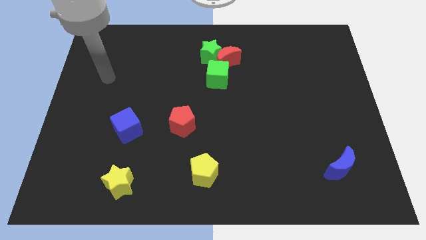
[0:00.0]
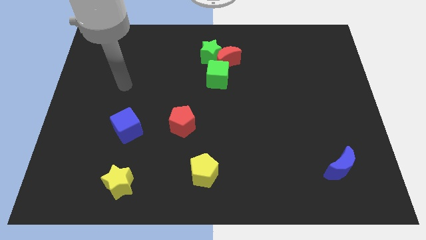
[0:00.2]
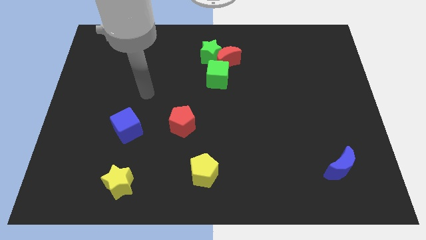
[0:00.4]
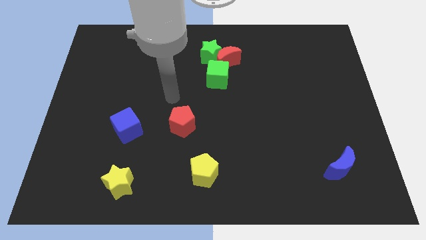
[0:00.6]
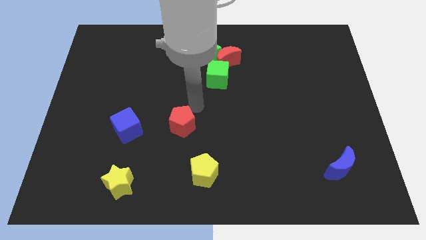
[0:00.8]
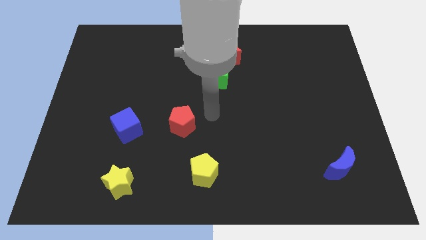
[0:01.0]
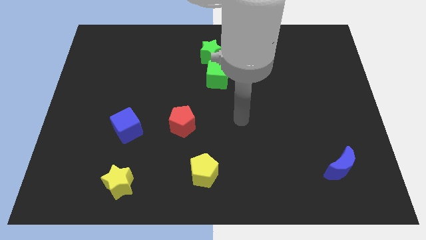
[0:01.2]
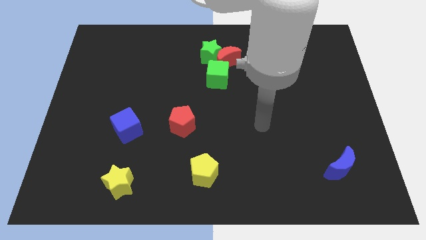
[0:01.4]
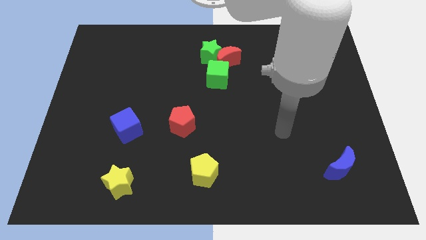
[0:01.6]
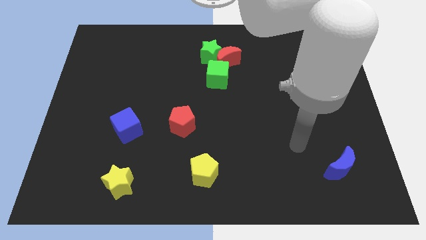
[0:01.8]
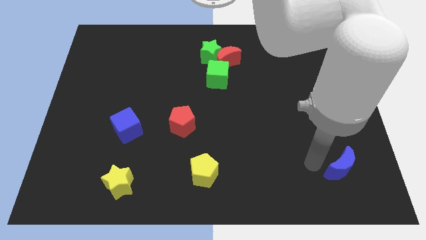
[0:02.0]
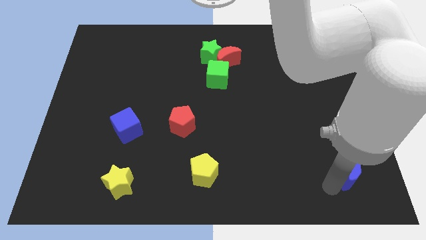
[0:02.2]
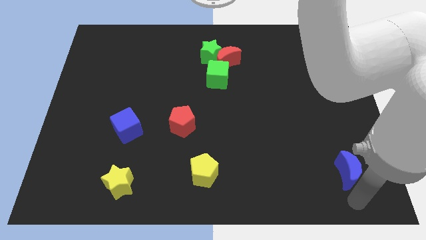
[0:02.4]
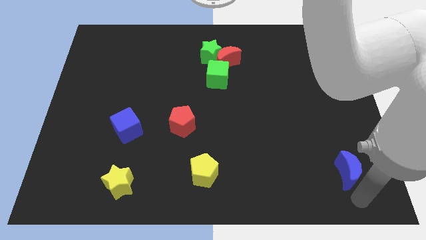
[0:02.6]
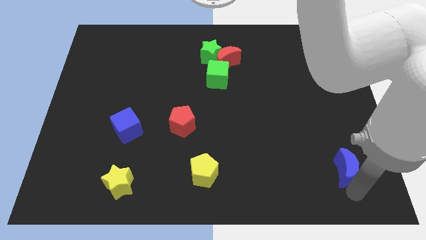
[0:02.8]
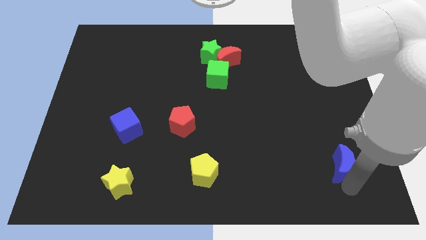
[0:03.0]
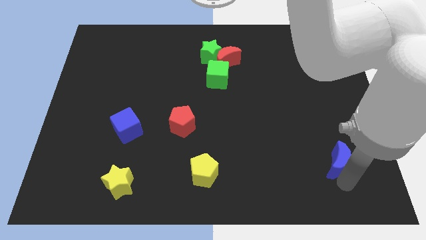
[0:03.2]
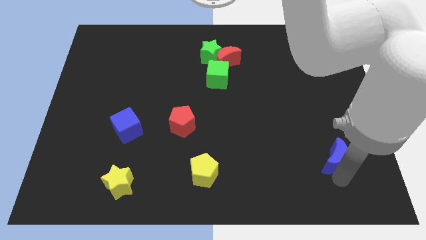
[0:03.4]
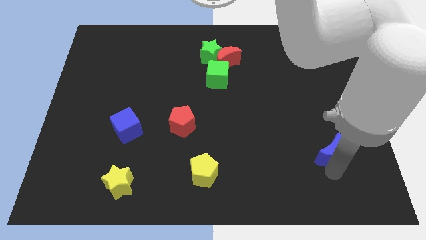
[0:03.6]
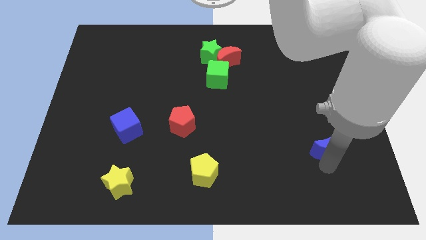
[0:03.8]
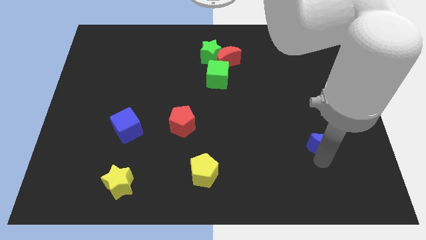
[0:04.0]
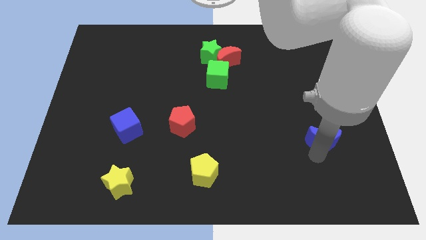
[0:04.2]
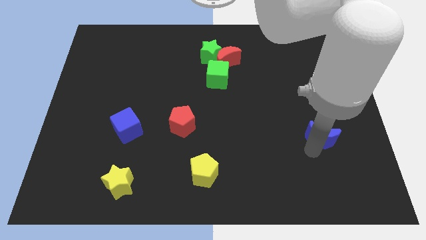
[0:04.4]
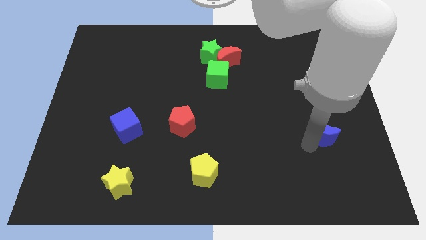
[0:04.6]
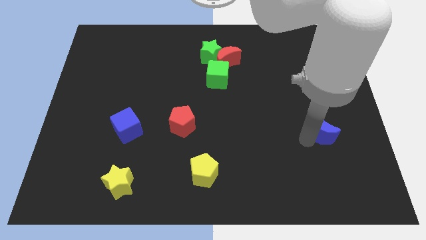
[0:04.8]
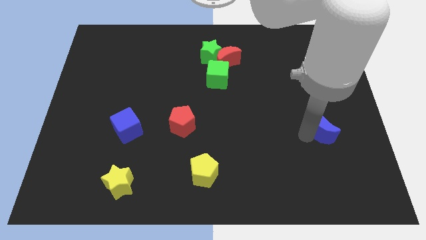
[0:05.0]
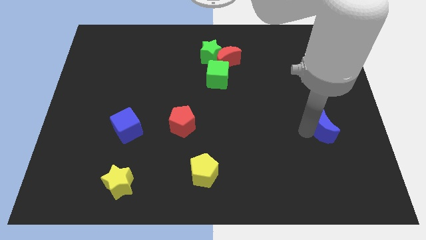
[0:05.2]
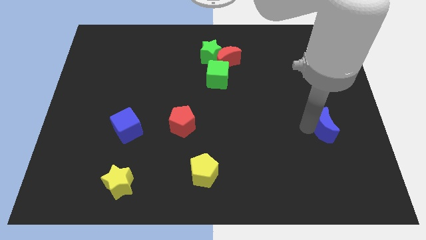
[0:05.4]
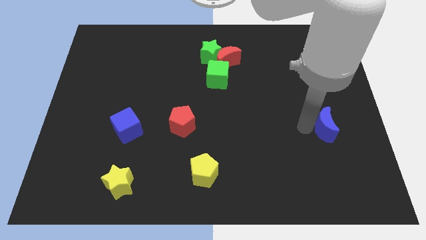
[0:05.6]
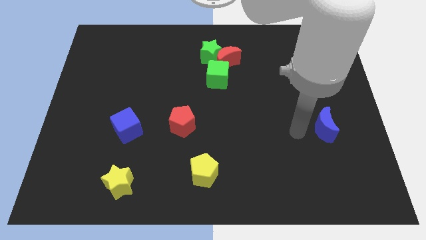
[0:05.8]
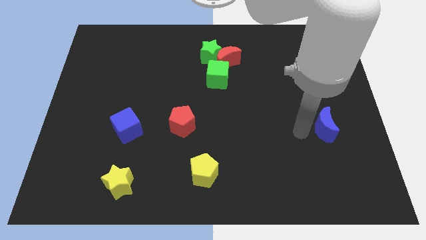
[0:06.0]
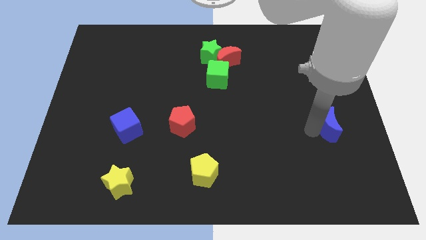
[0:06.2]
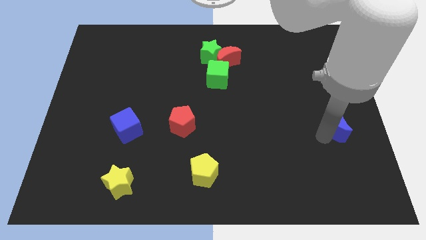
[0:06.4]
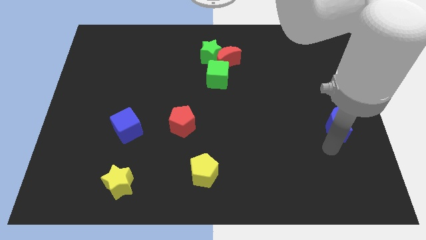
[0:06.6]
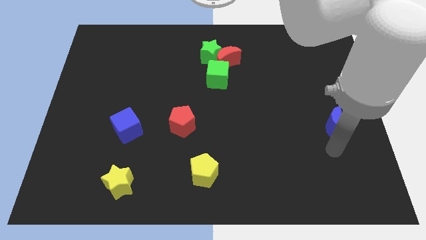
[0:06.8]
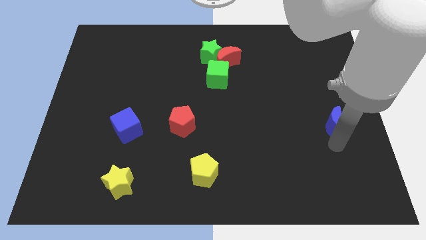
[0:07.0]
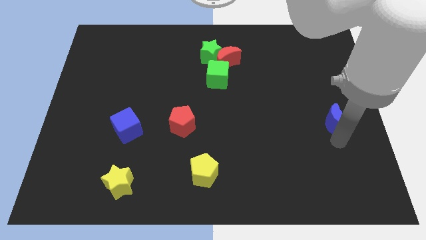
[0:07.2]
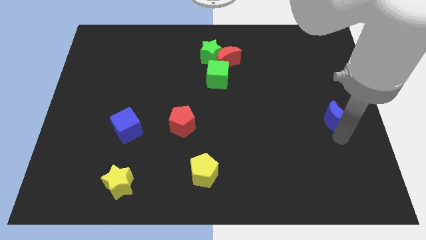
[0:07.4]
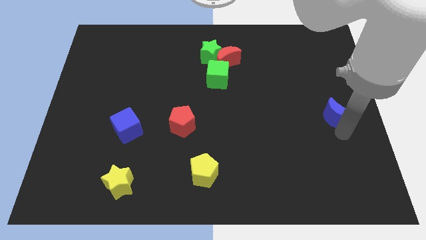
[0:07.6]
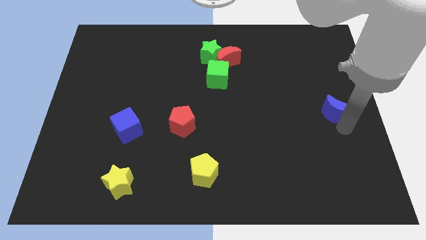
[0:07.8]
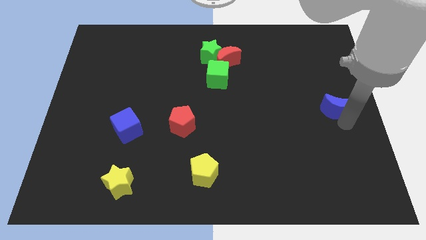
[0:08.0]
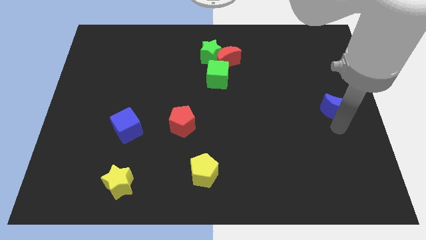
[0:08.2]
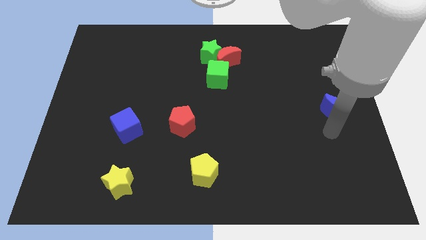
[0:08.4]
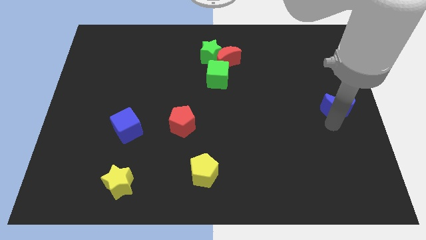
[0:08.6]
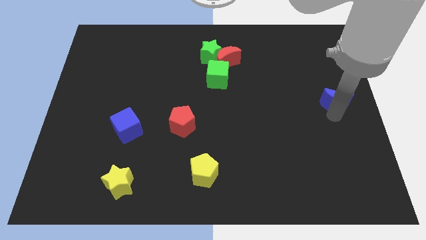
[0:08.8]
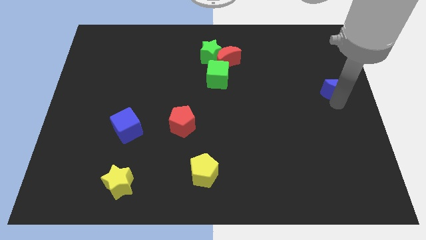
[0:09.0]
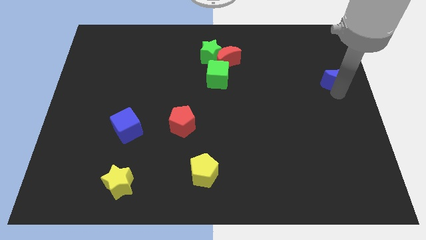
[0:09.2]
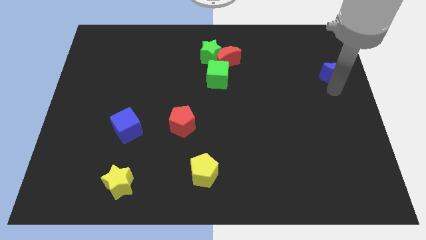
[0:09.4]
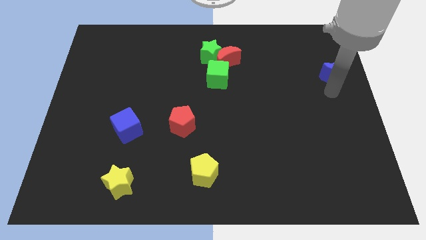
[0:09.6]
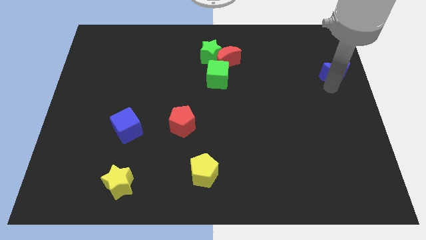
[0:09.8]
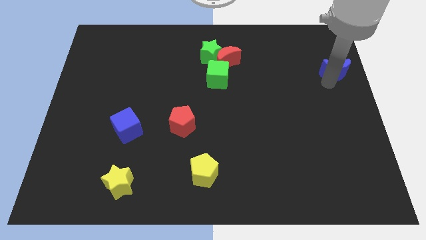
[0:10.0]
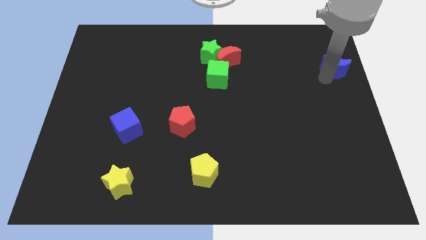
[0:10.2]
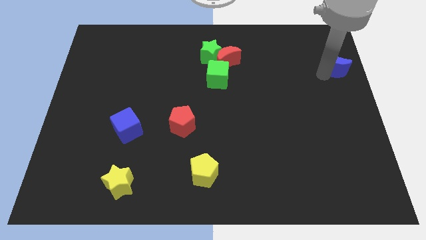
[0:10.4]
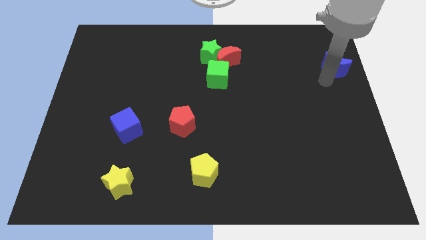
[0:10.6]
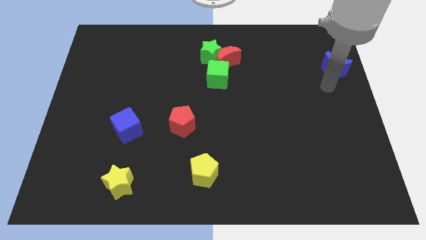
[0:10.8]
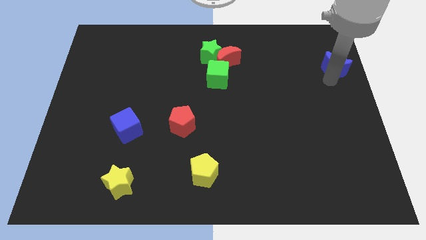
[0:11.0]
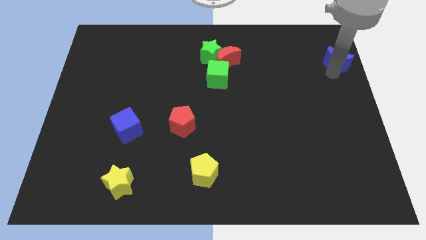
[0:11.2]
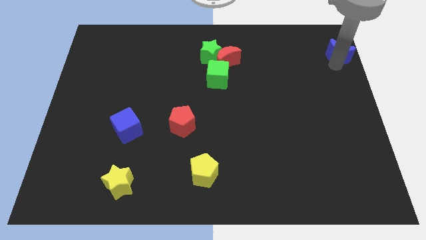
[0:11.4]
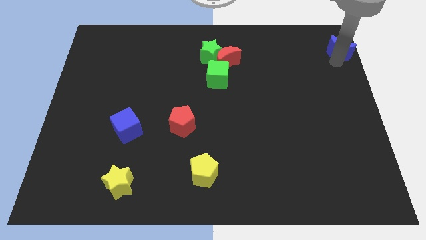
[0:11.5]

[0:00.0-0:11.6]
push the blue moon to the top right of the board

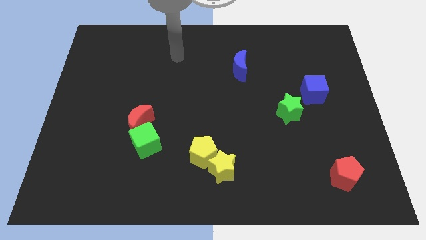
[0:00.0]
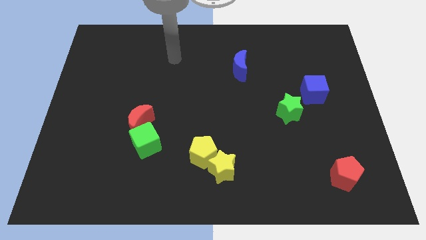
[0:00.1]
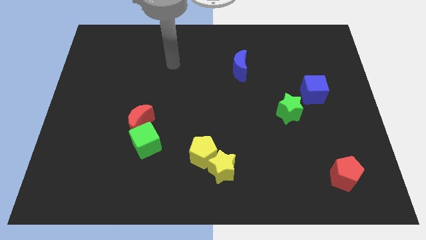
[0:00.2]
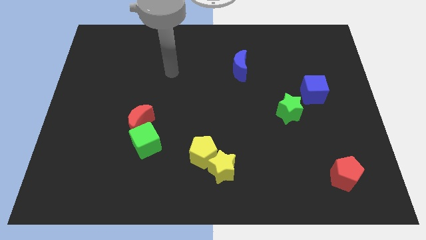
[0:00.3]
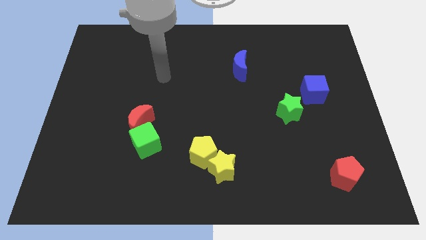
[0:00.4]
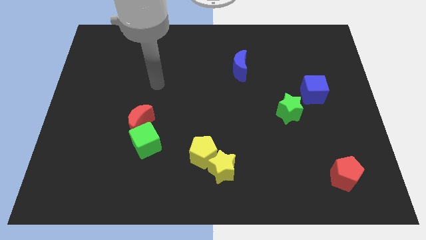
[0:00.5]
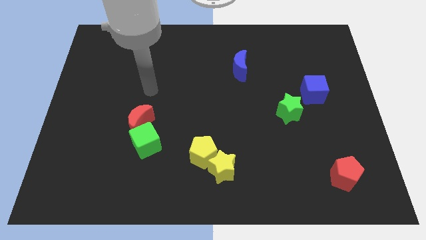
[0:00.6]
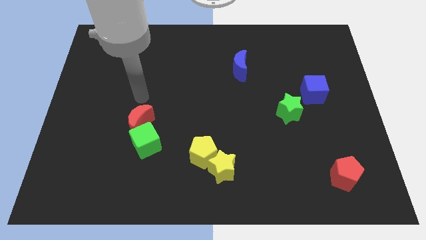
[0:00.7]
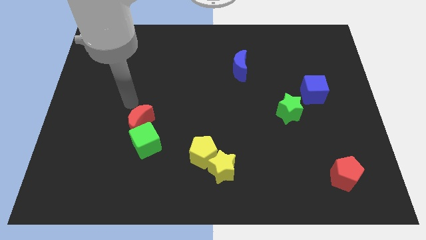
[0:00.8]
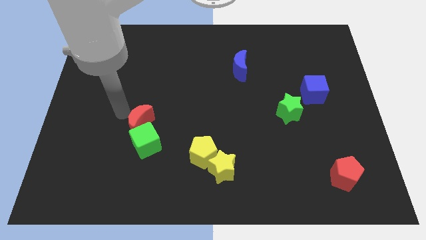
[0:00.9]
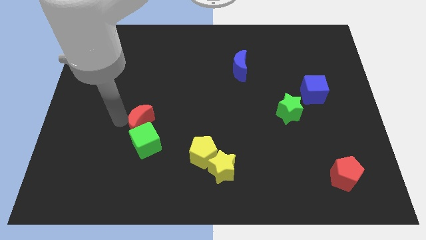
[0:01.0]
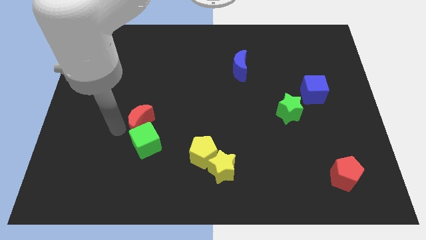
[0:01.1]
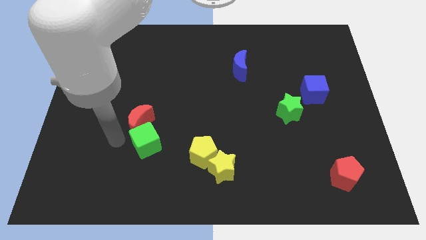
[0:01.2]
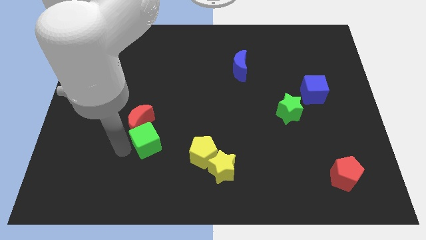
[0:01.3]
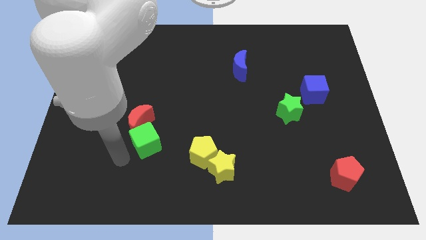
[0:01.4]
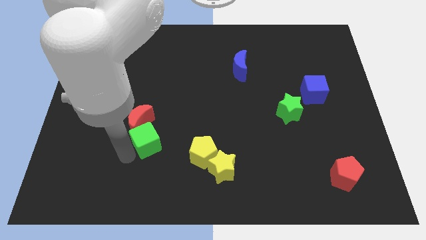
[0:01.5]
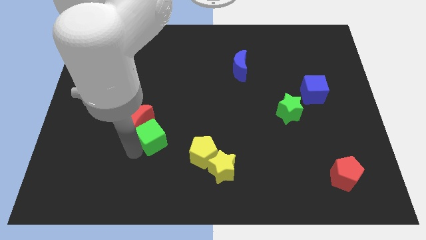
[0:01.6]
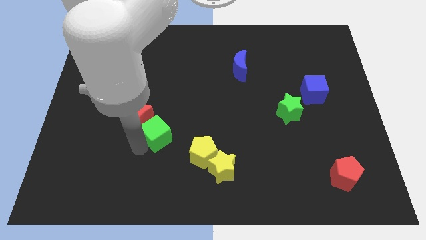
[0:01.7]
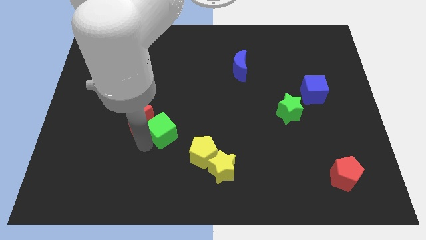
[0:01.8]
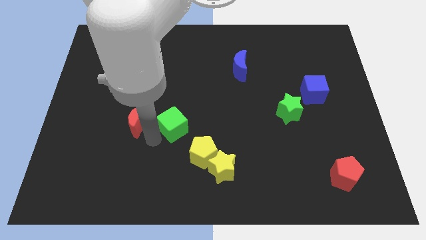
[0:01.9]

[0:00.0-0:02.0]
slide the green cube to the center of the board

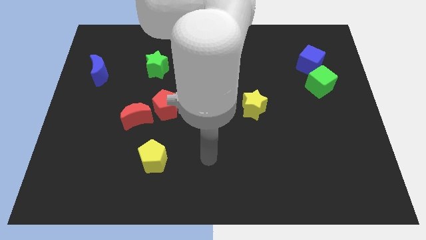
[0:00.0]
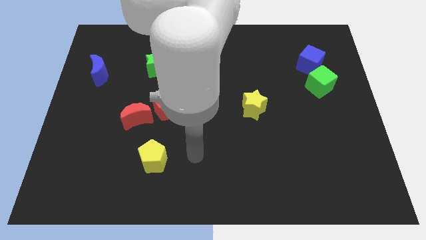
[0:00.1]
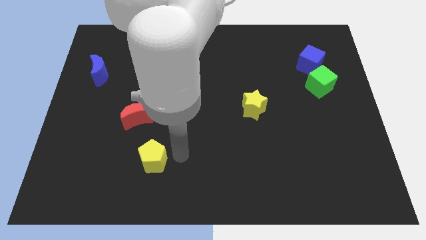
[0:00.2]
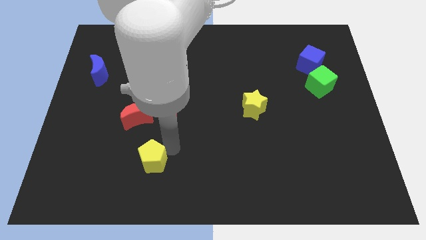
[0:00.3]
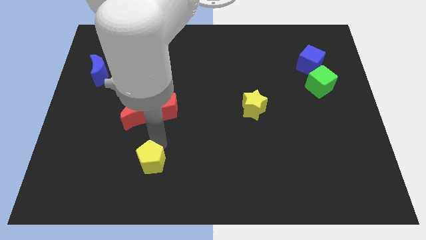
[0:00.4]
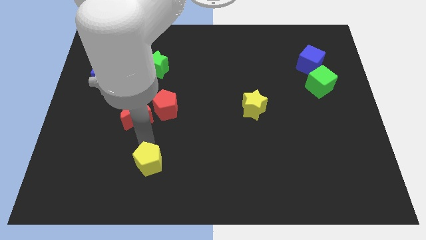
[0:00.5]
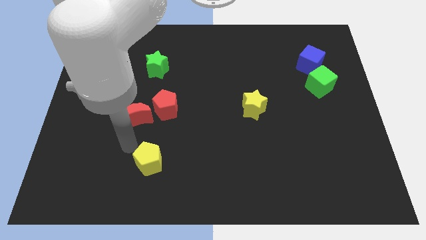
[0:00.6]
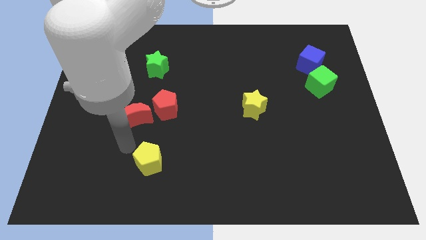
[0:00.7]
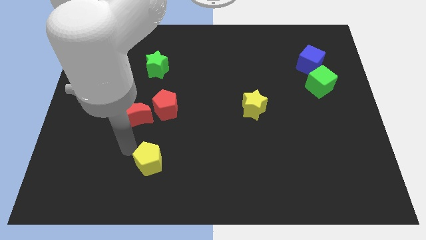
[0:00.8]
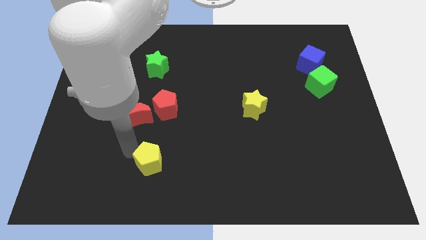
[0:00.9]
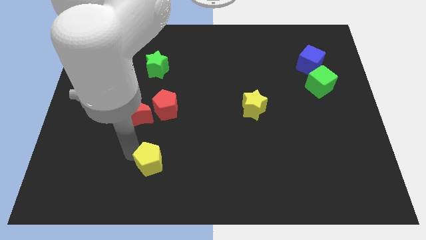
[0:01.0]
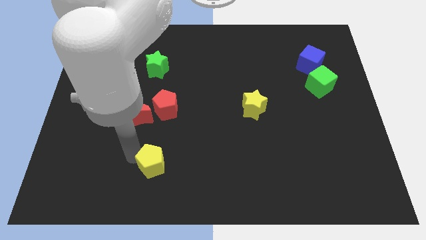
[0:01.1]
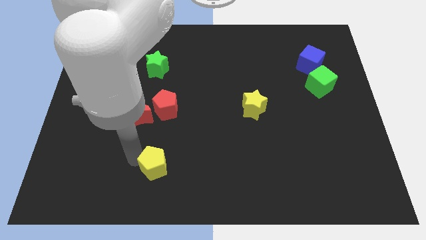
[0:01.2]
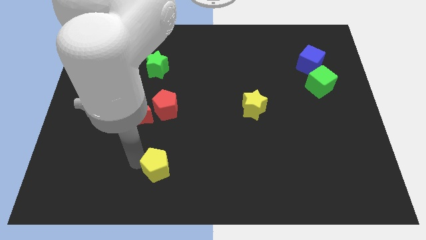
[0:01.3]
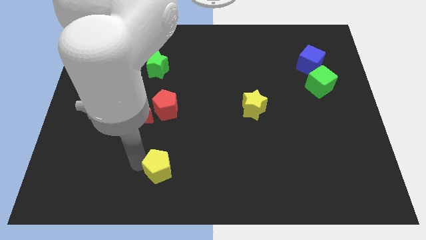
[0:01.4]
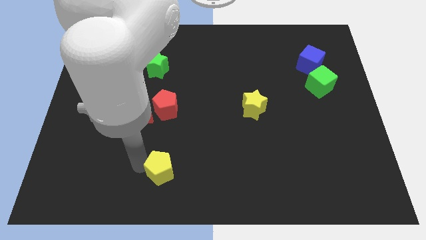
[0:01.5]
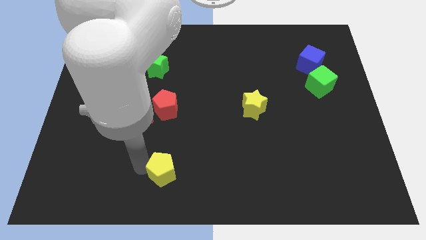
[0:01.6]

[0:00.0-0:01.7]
push the yellow pentagon to the bottom side
